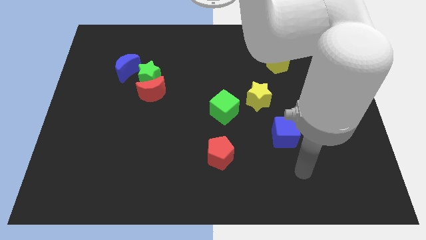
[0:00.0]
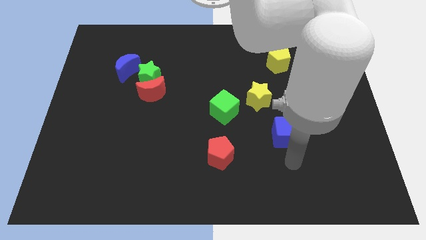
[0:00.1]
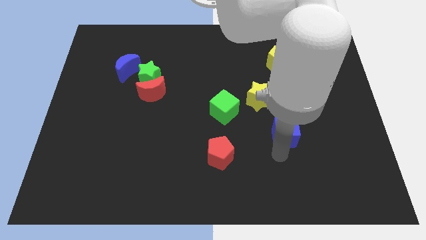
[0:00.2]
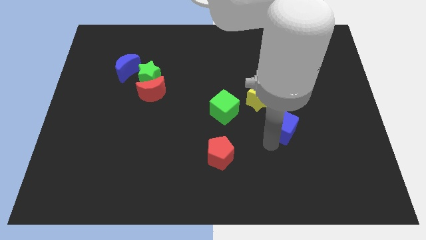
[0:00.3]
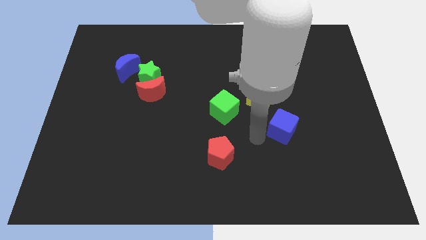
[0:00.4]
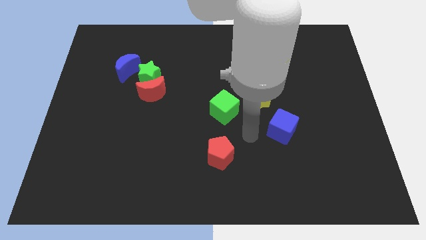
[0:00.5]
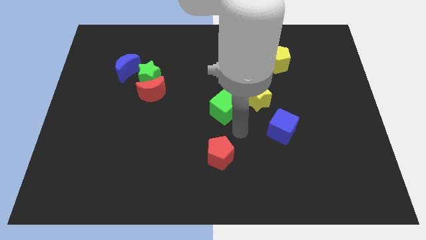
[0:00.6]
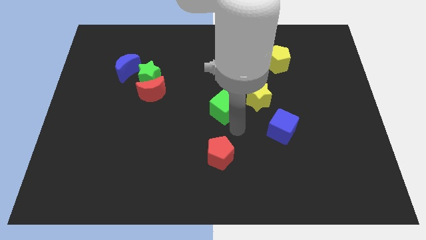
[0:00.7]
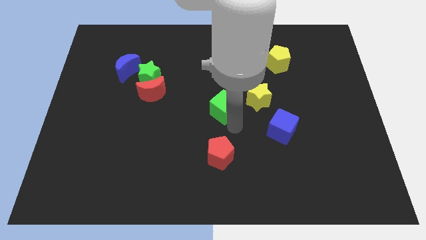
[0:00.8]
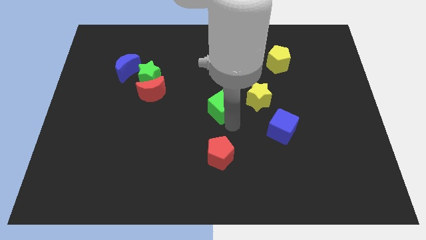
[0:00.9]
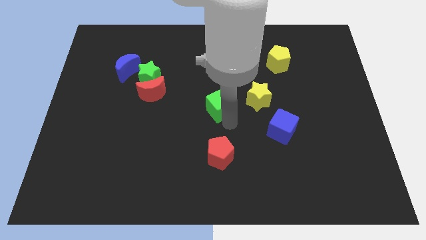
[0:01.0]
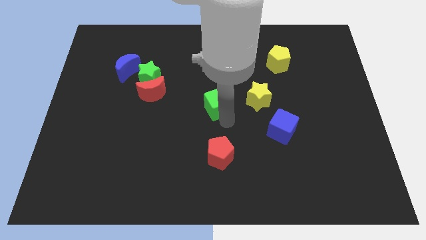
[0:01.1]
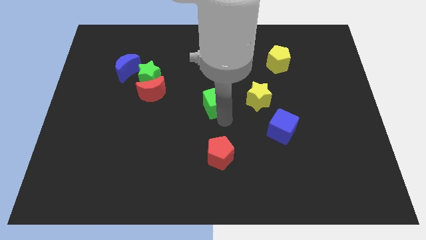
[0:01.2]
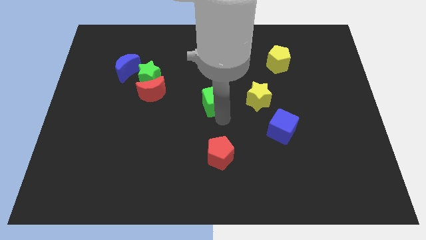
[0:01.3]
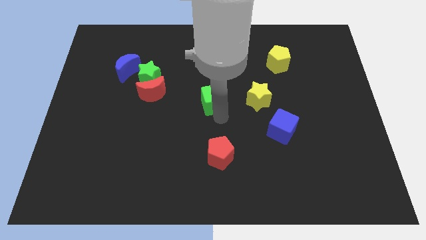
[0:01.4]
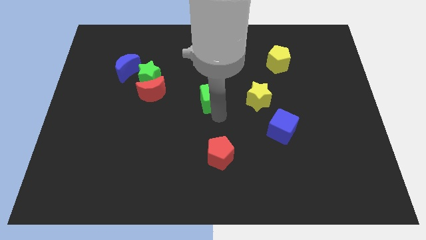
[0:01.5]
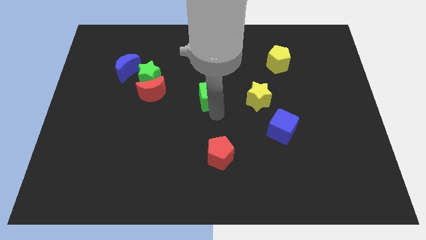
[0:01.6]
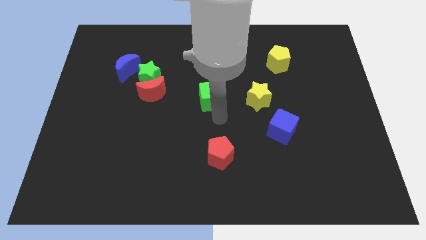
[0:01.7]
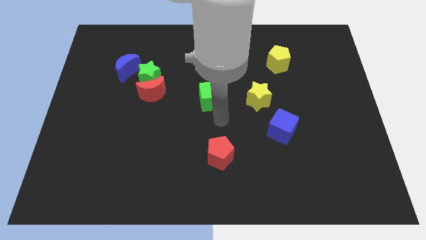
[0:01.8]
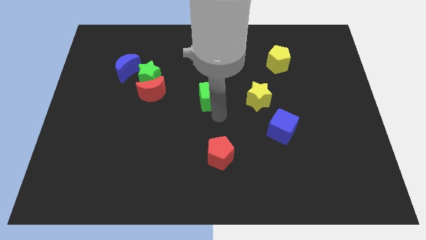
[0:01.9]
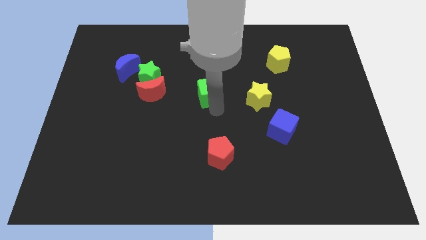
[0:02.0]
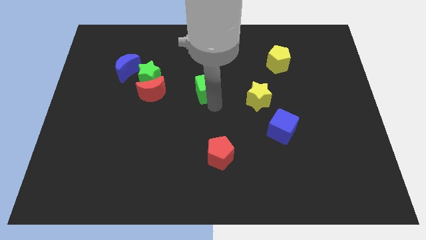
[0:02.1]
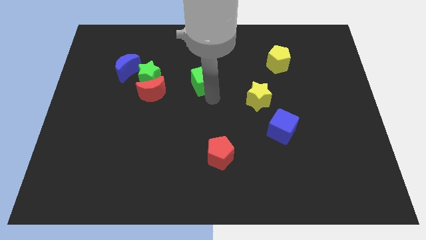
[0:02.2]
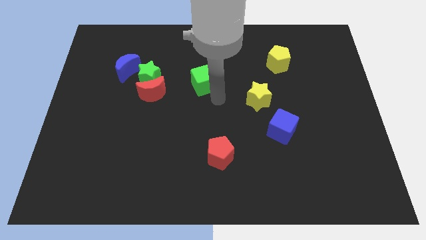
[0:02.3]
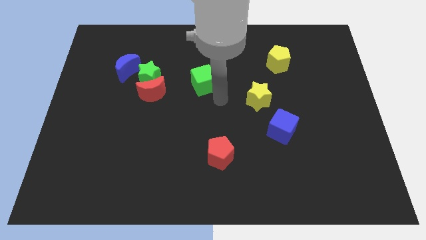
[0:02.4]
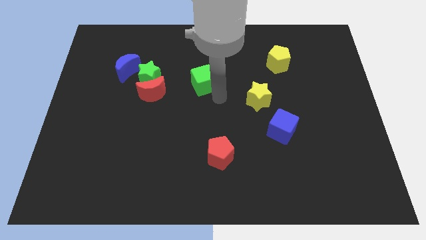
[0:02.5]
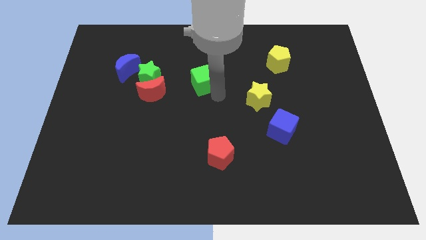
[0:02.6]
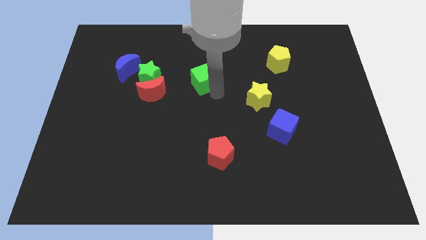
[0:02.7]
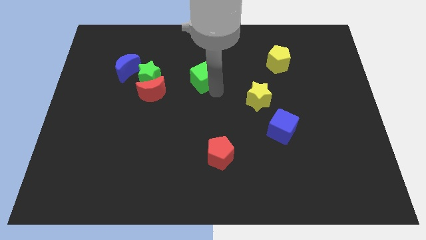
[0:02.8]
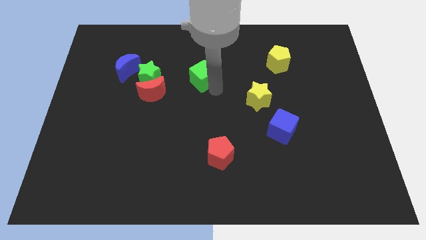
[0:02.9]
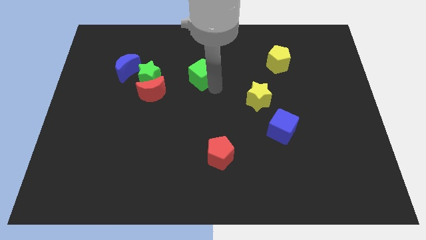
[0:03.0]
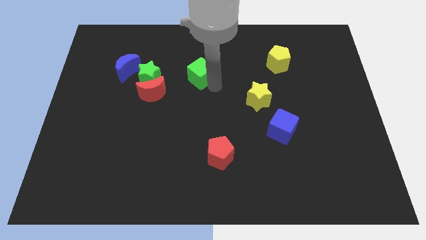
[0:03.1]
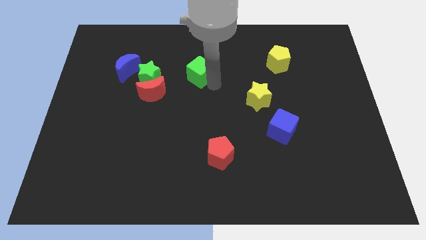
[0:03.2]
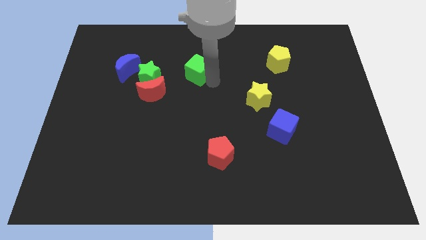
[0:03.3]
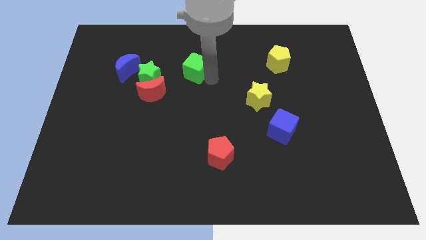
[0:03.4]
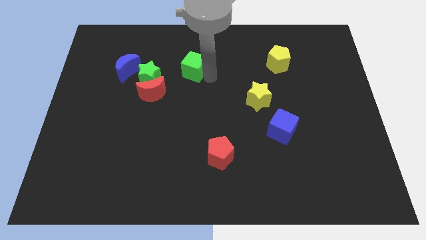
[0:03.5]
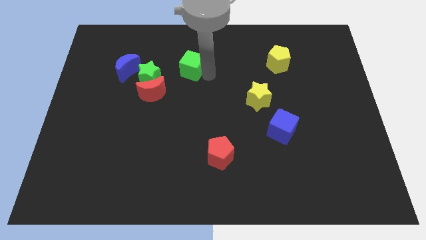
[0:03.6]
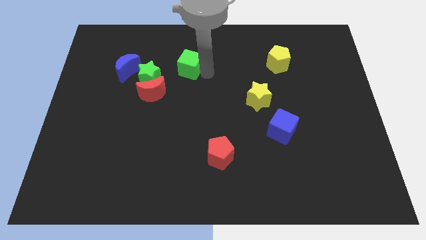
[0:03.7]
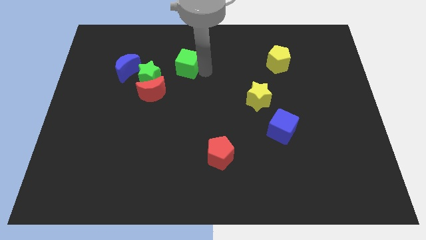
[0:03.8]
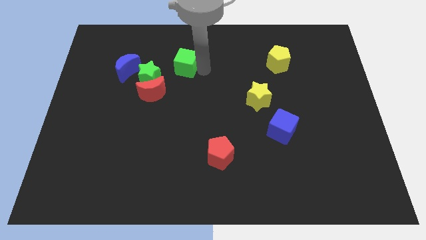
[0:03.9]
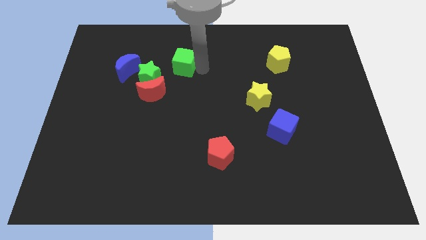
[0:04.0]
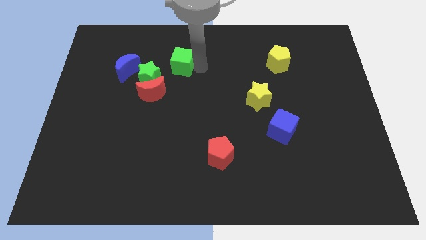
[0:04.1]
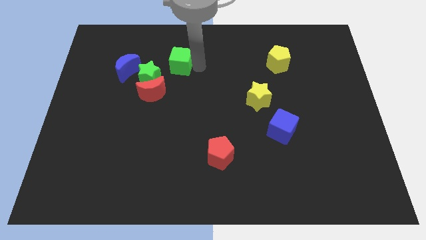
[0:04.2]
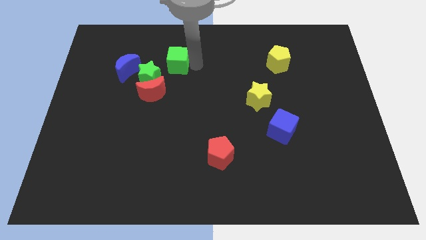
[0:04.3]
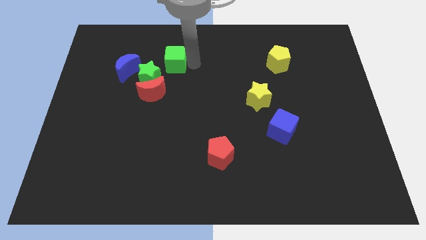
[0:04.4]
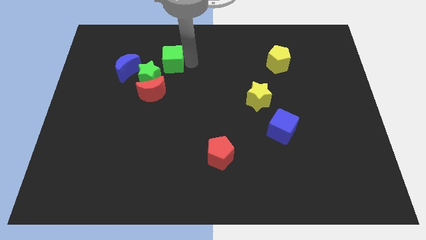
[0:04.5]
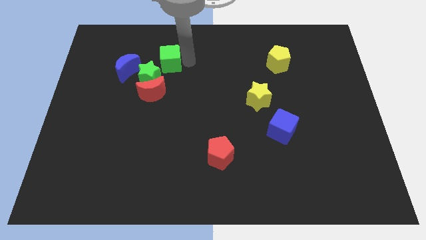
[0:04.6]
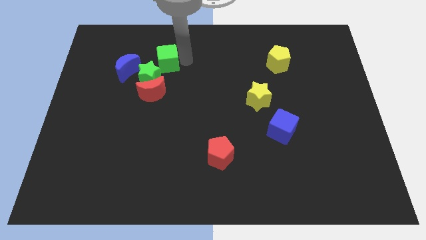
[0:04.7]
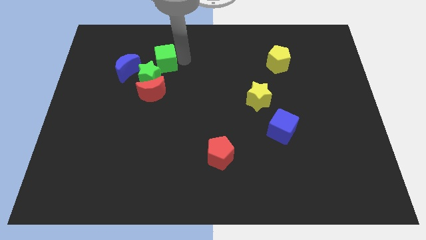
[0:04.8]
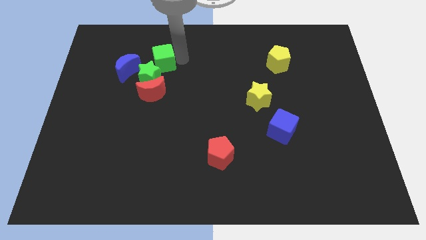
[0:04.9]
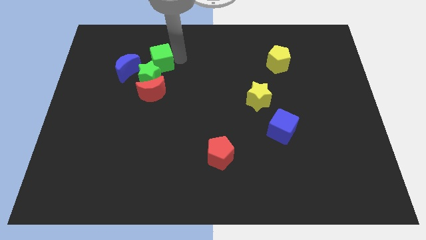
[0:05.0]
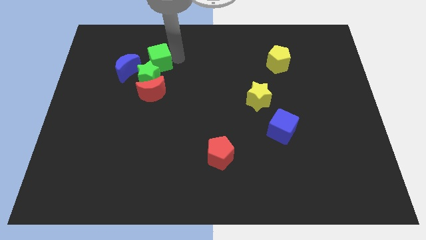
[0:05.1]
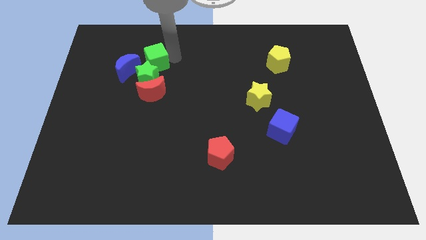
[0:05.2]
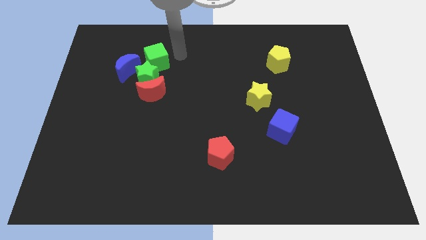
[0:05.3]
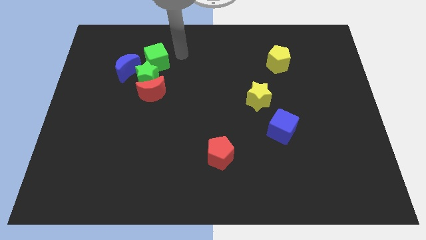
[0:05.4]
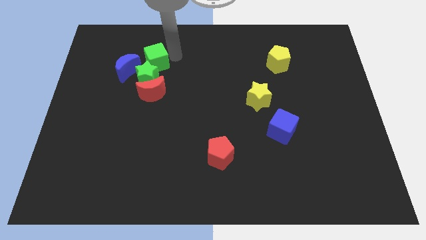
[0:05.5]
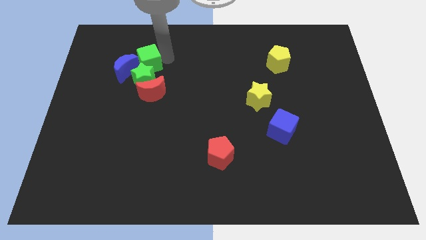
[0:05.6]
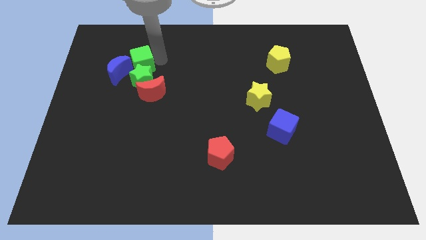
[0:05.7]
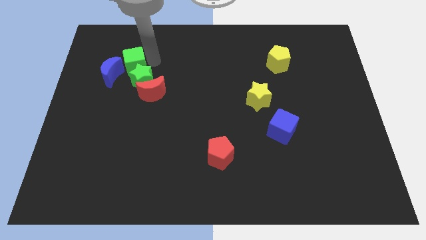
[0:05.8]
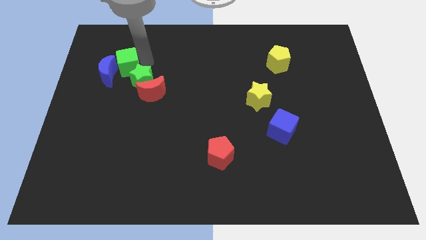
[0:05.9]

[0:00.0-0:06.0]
push the green cube towards the blue moon

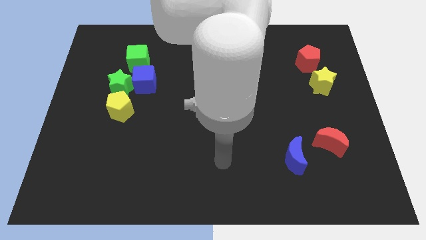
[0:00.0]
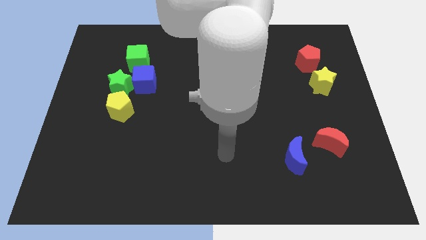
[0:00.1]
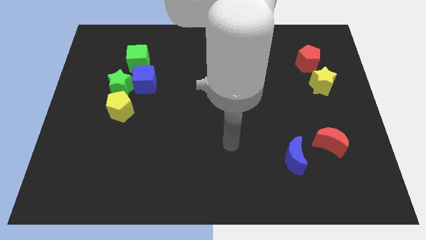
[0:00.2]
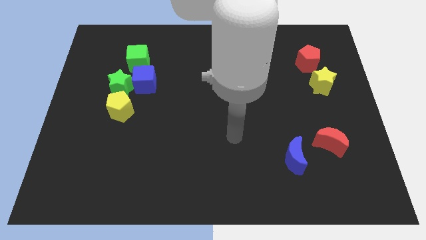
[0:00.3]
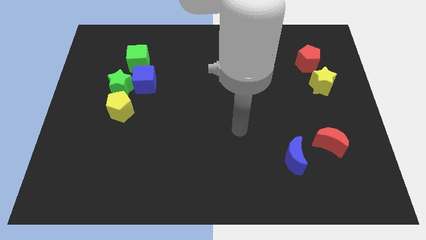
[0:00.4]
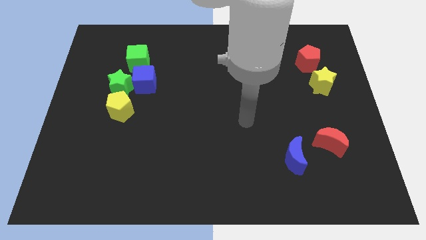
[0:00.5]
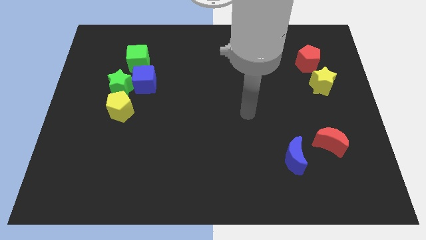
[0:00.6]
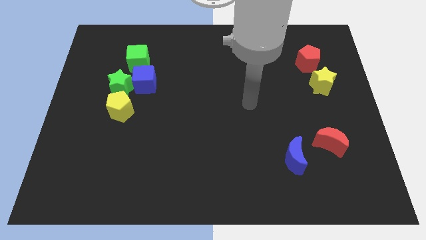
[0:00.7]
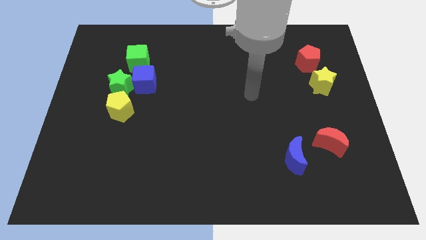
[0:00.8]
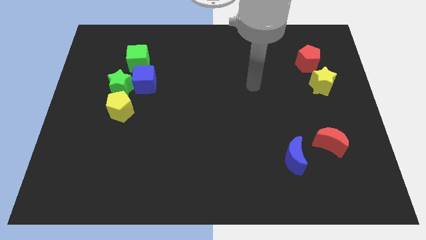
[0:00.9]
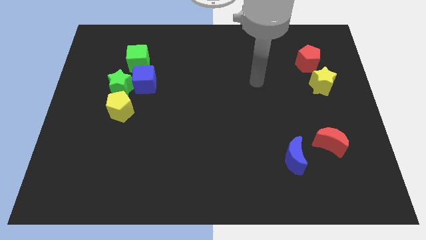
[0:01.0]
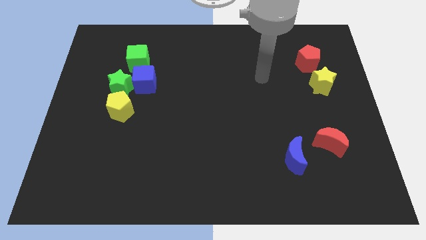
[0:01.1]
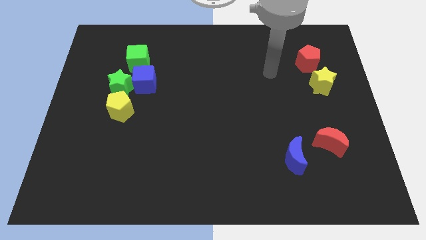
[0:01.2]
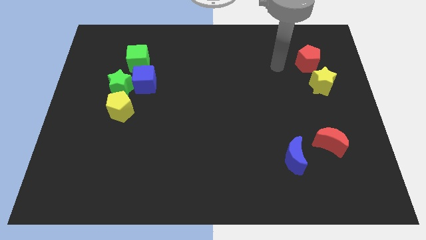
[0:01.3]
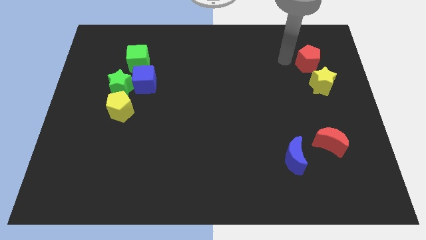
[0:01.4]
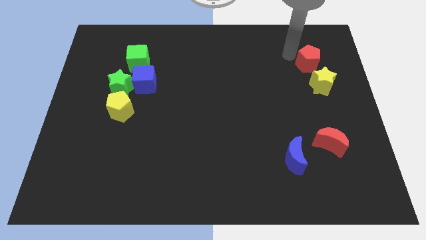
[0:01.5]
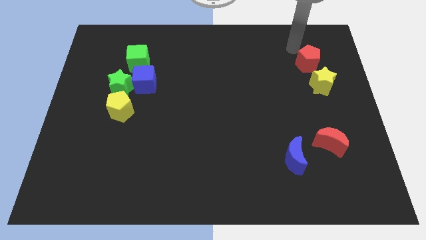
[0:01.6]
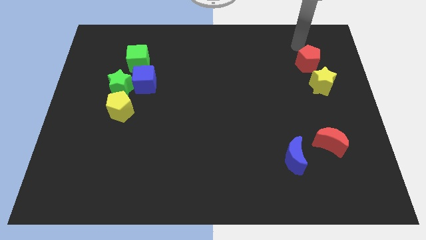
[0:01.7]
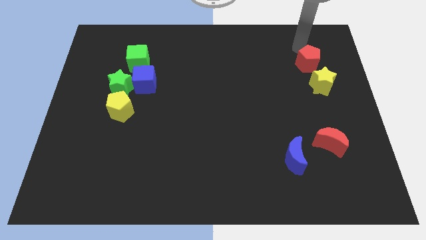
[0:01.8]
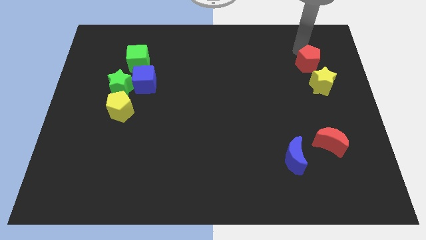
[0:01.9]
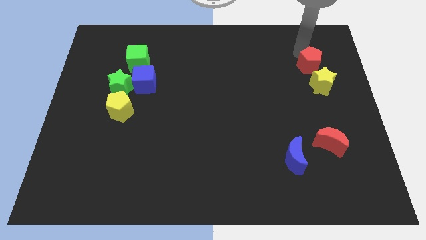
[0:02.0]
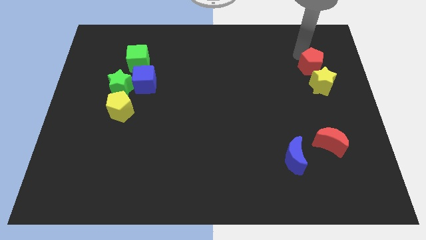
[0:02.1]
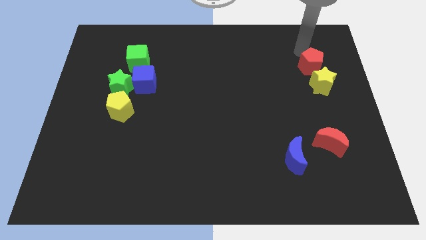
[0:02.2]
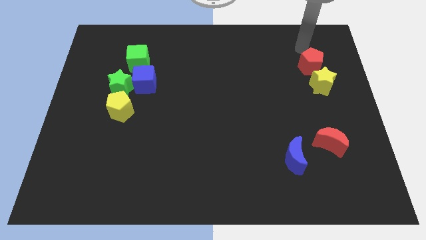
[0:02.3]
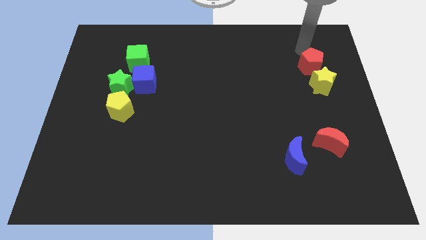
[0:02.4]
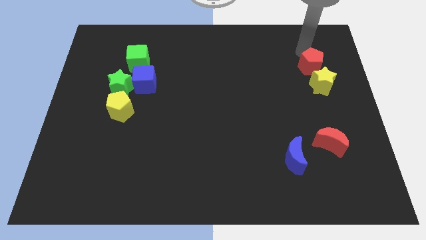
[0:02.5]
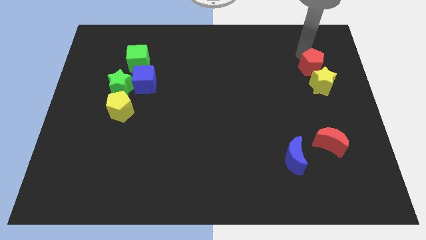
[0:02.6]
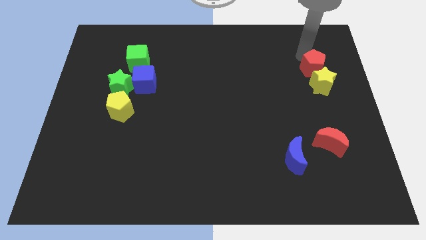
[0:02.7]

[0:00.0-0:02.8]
put the red pentagon close to the yellow star
